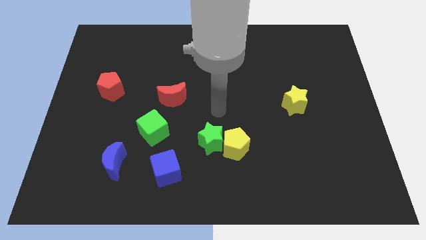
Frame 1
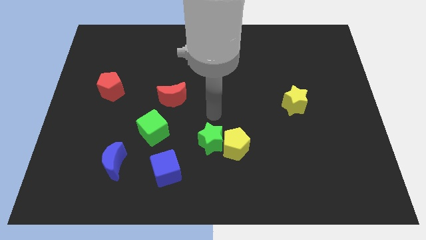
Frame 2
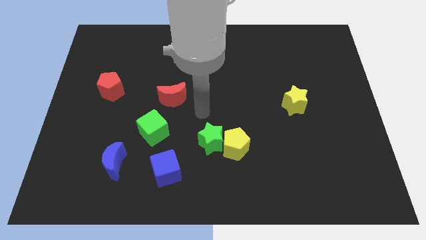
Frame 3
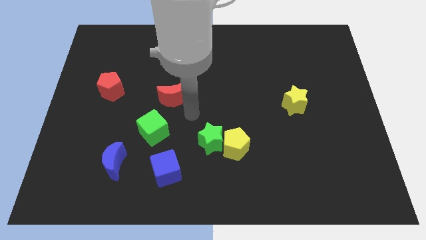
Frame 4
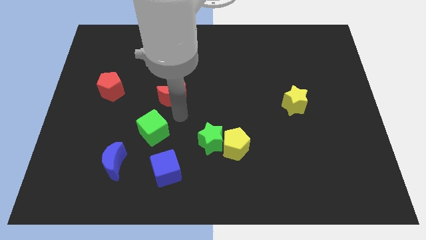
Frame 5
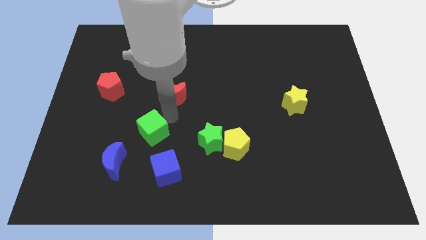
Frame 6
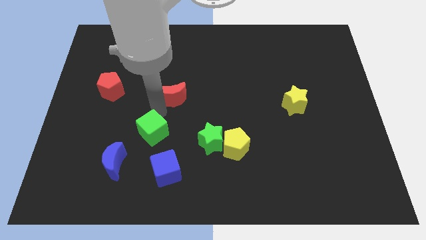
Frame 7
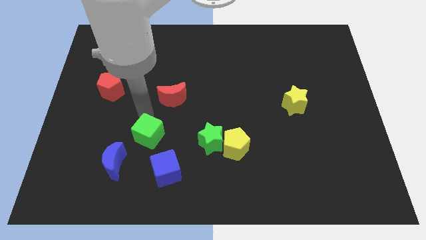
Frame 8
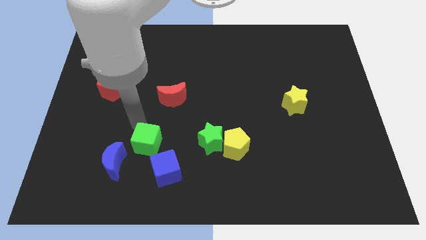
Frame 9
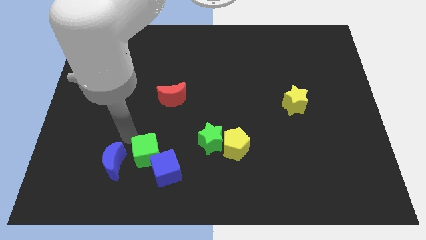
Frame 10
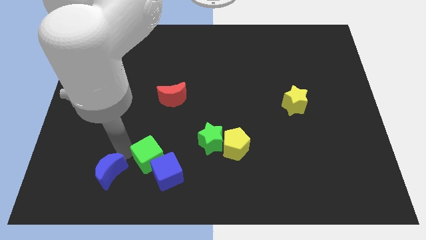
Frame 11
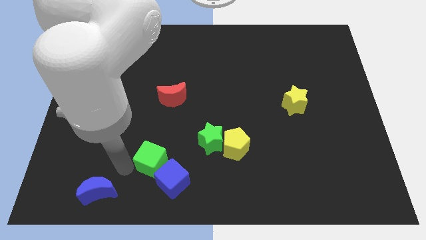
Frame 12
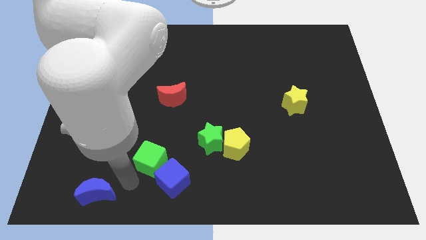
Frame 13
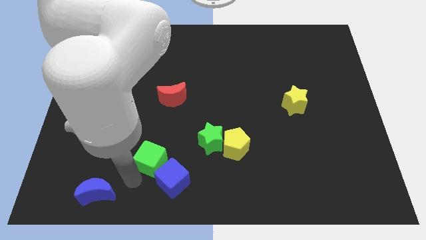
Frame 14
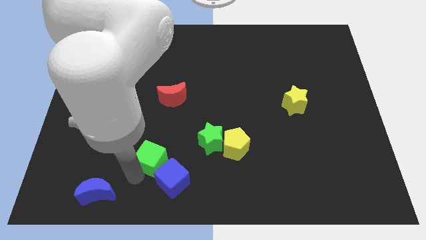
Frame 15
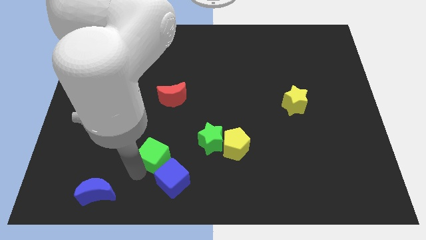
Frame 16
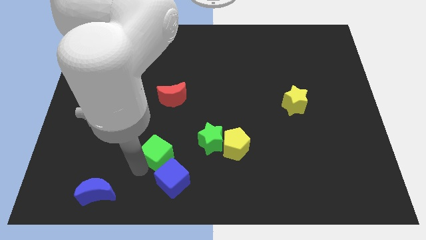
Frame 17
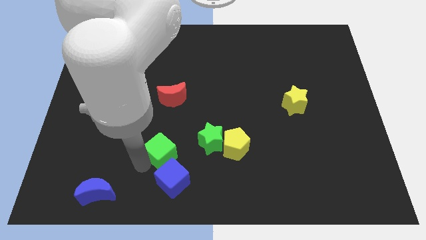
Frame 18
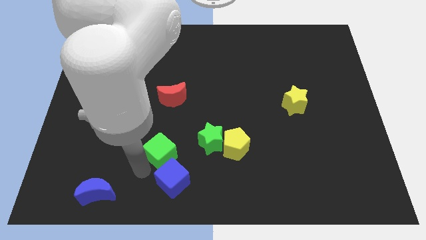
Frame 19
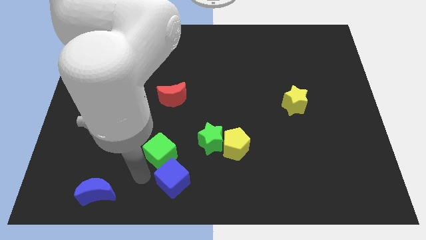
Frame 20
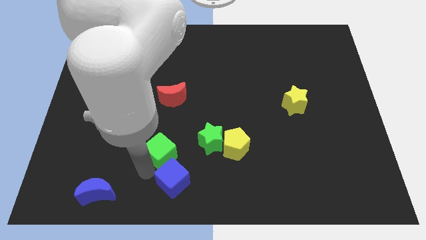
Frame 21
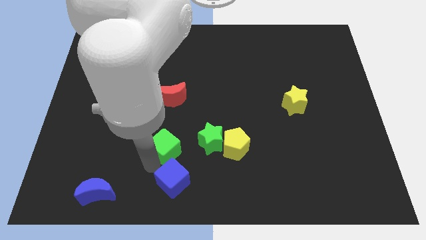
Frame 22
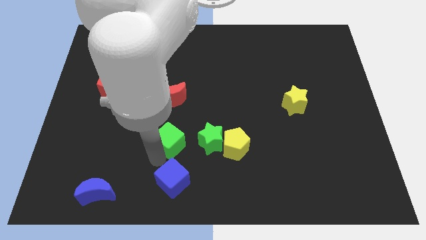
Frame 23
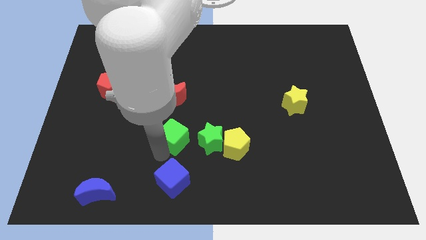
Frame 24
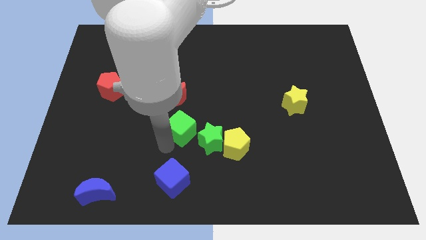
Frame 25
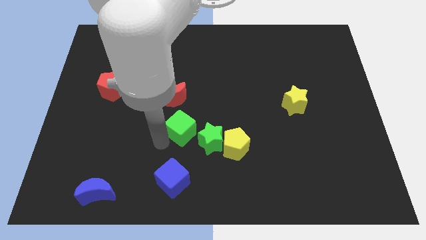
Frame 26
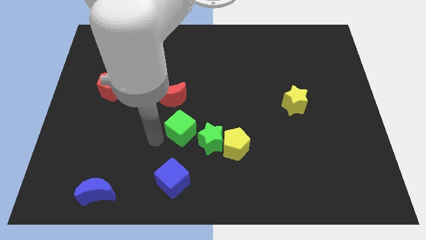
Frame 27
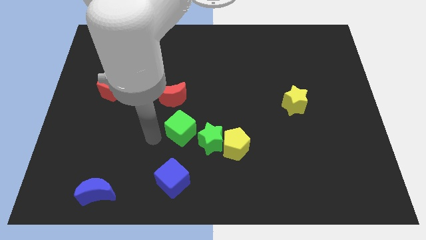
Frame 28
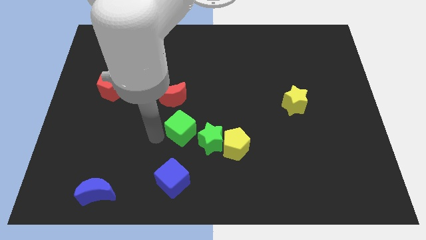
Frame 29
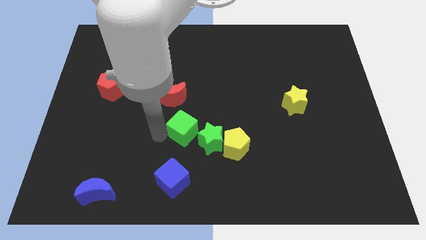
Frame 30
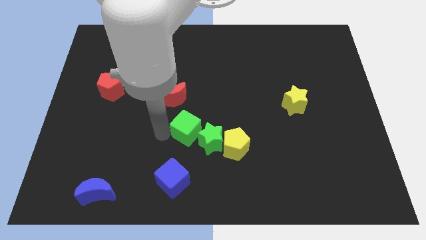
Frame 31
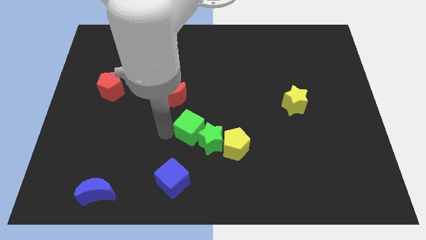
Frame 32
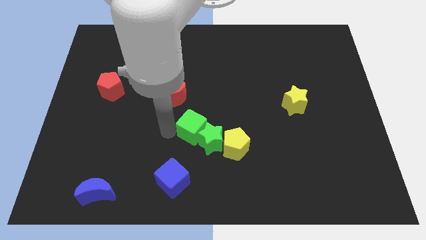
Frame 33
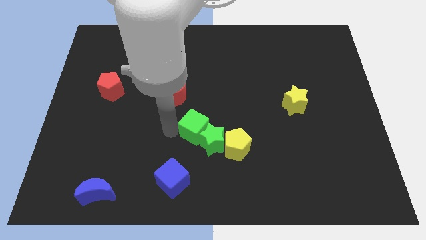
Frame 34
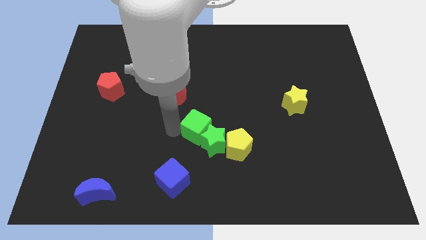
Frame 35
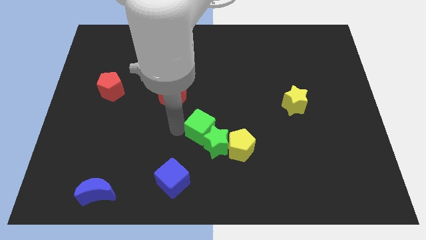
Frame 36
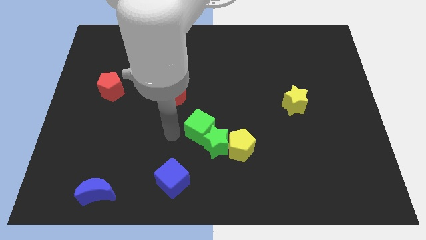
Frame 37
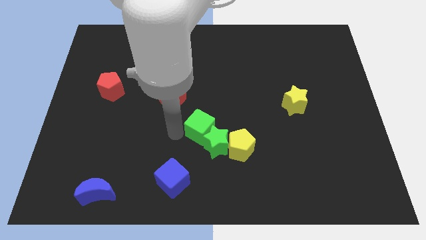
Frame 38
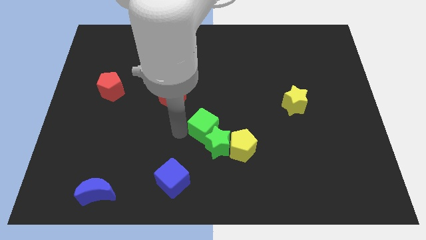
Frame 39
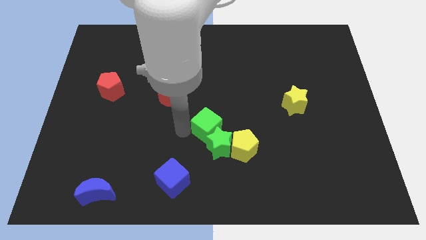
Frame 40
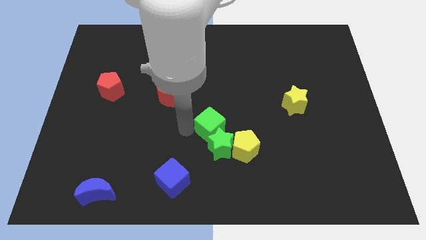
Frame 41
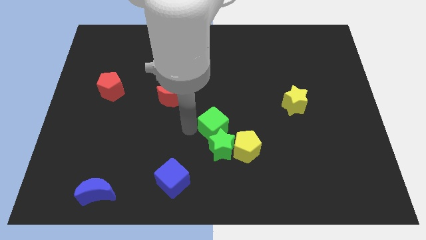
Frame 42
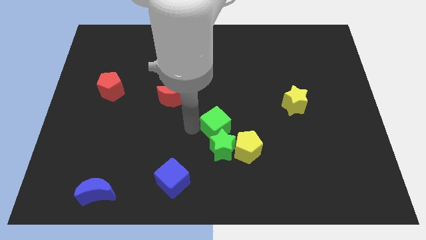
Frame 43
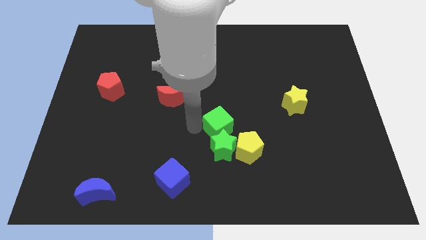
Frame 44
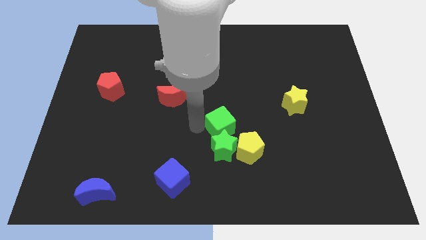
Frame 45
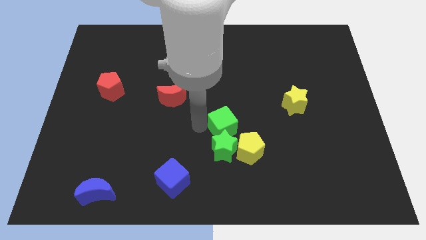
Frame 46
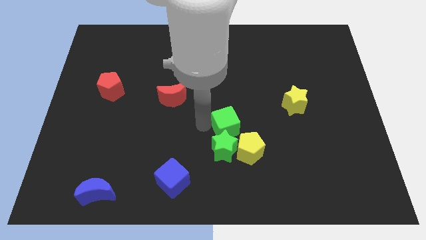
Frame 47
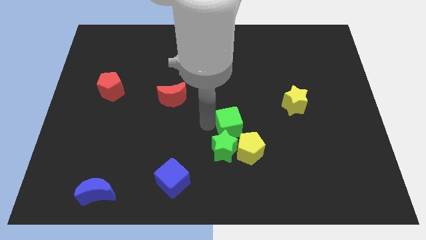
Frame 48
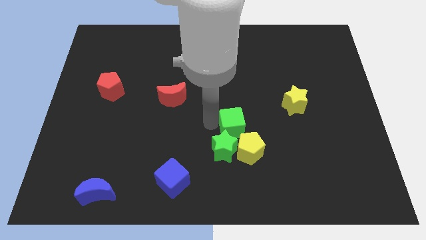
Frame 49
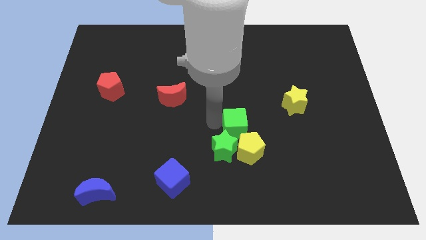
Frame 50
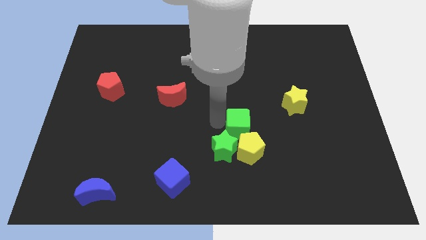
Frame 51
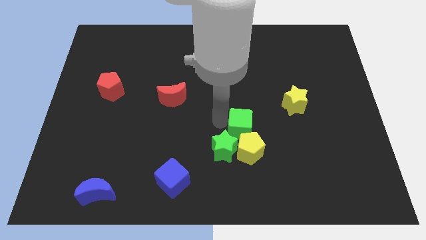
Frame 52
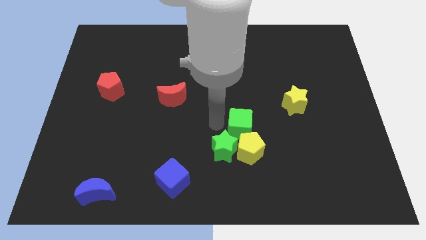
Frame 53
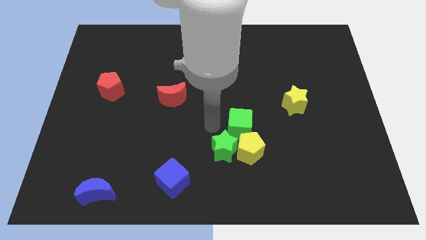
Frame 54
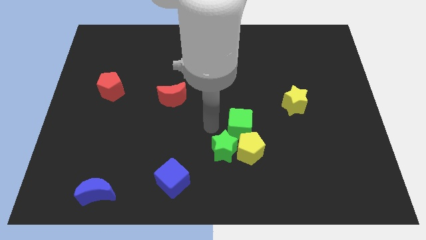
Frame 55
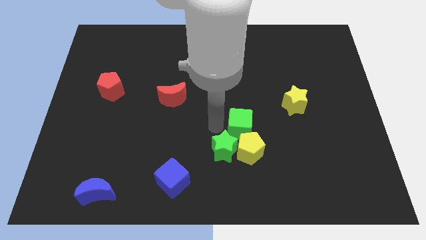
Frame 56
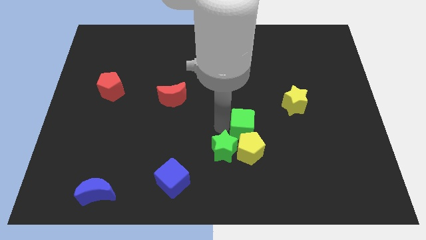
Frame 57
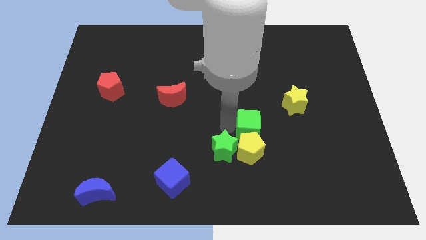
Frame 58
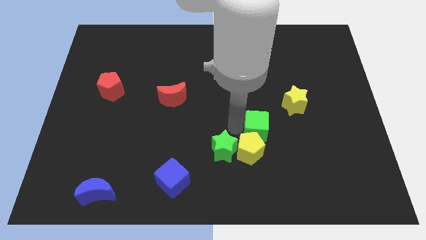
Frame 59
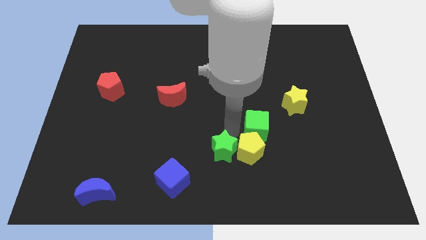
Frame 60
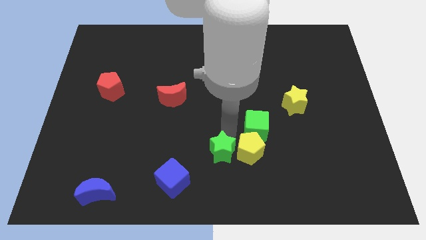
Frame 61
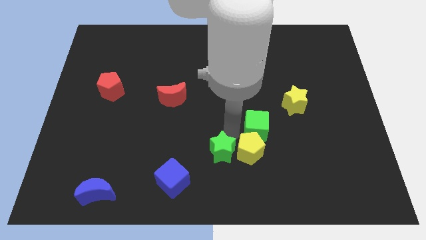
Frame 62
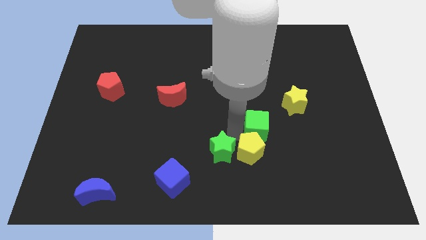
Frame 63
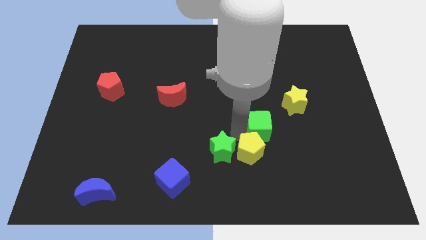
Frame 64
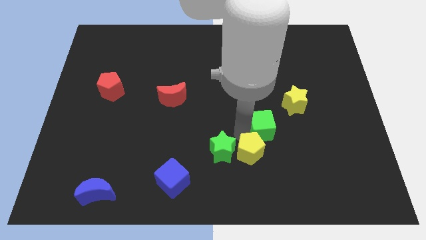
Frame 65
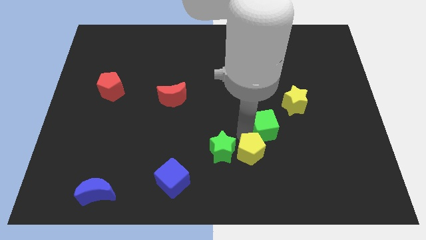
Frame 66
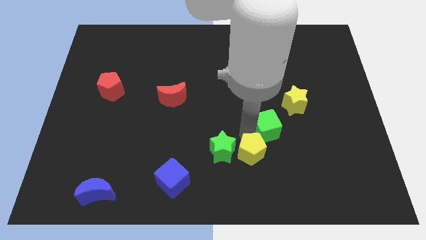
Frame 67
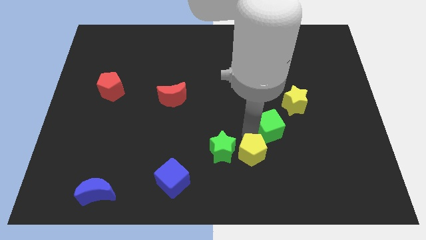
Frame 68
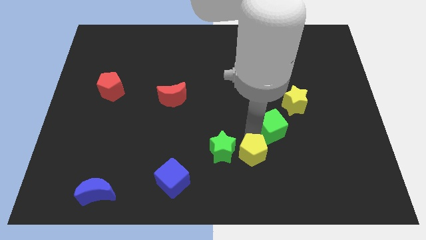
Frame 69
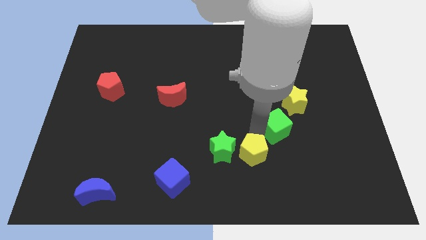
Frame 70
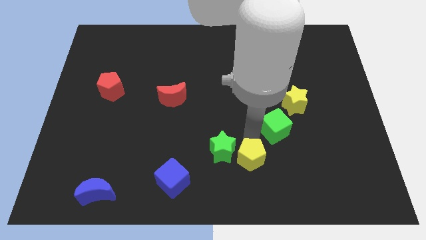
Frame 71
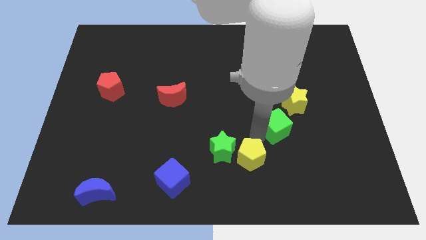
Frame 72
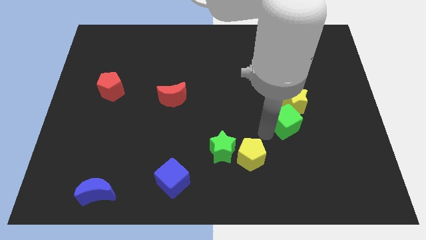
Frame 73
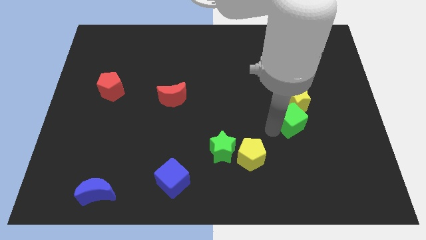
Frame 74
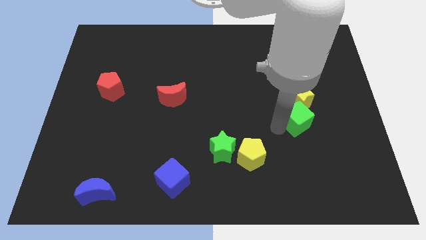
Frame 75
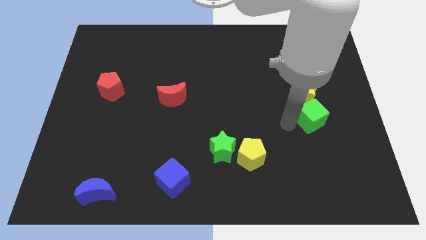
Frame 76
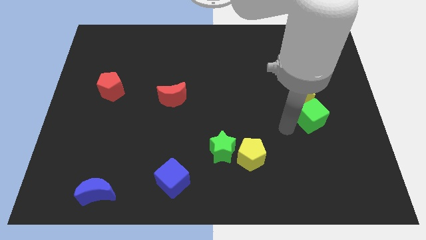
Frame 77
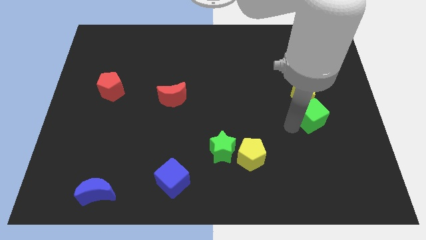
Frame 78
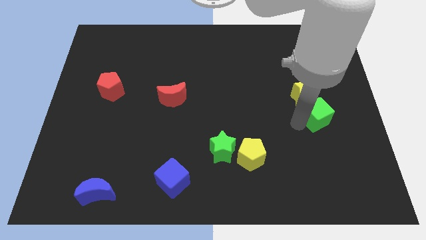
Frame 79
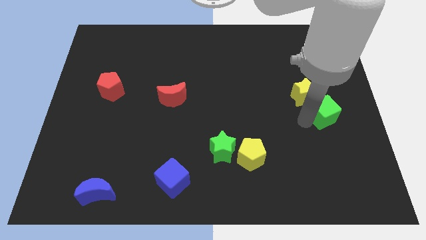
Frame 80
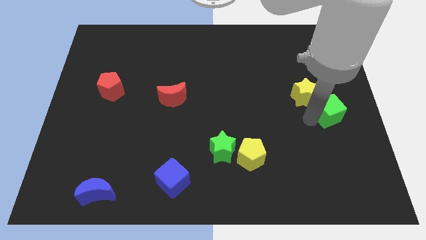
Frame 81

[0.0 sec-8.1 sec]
put the green cube to the right side
